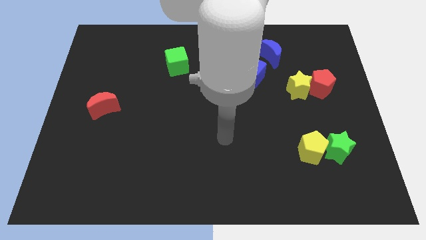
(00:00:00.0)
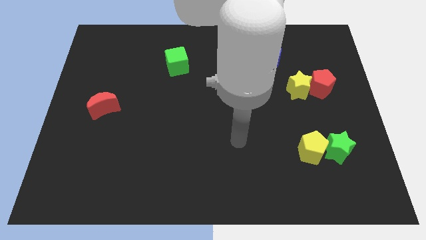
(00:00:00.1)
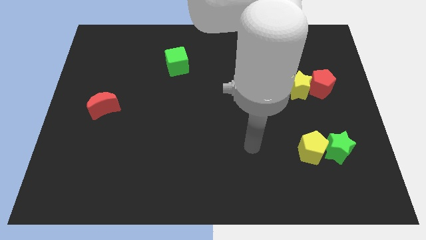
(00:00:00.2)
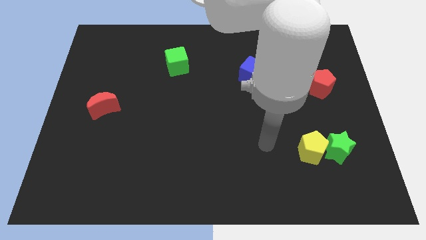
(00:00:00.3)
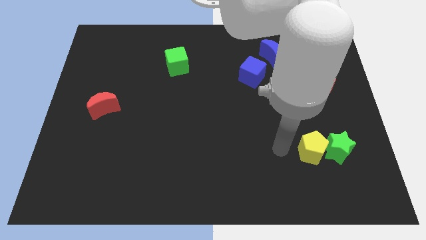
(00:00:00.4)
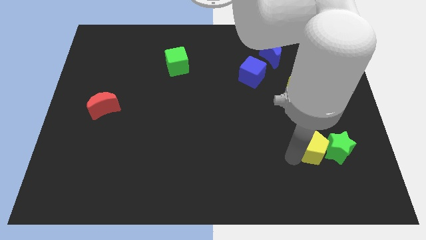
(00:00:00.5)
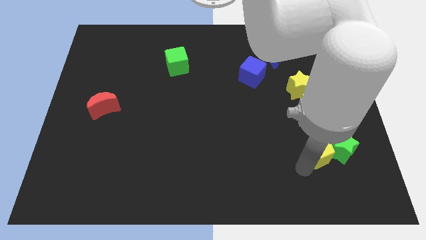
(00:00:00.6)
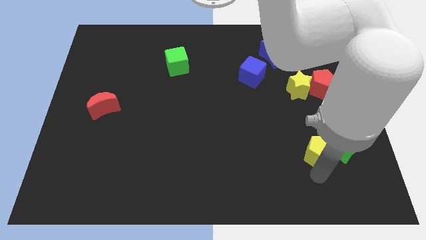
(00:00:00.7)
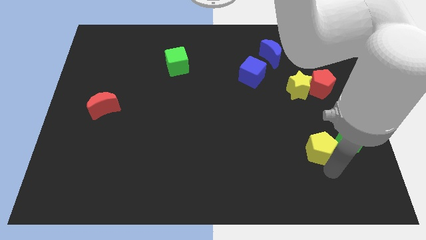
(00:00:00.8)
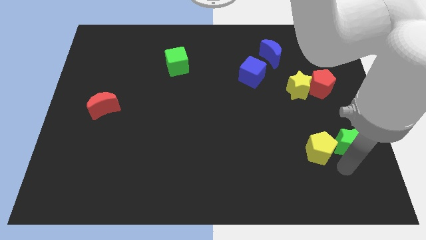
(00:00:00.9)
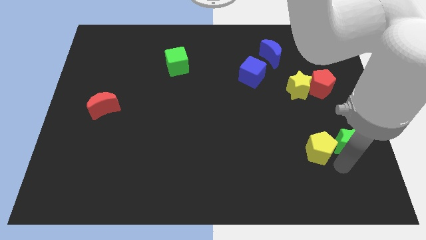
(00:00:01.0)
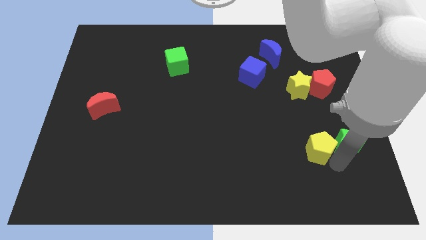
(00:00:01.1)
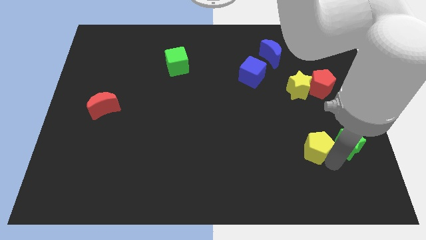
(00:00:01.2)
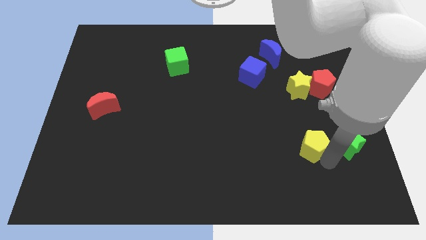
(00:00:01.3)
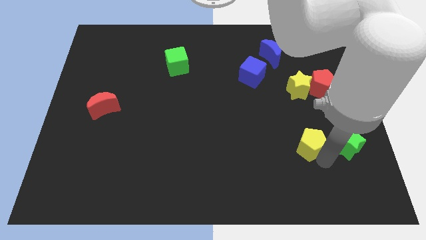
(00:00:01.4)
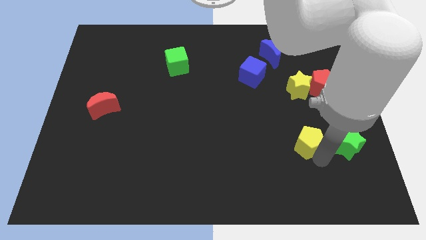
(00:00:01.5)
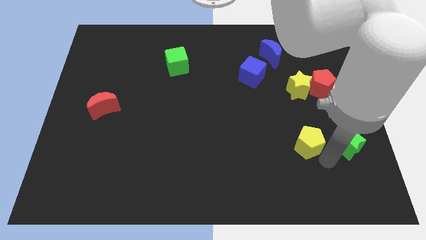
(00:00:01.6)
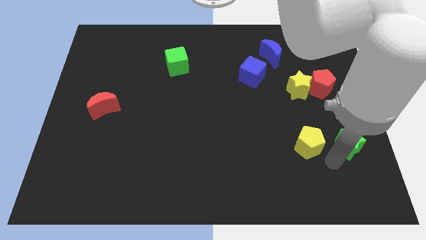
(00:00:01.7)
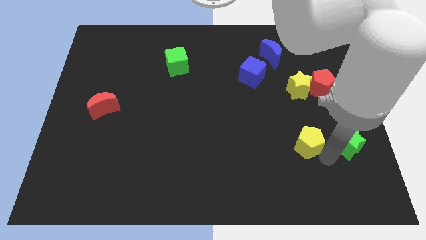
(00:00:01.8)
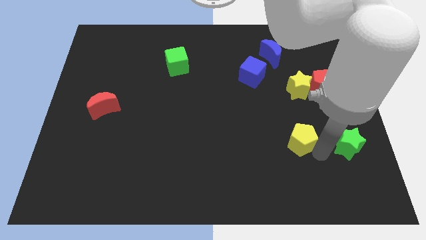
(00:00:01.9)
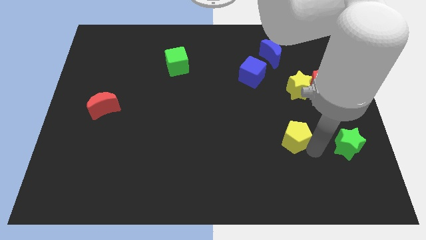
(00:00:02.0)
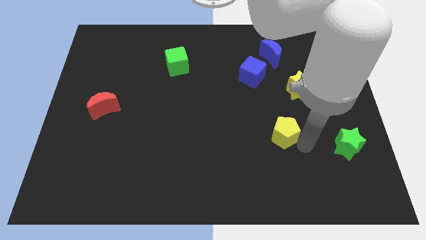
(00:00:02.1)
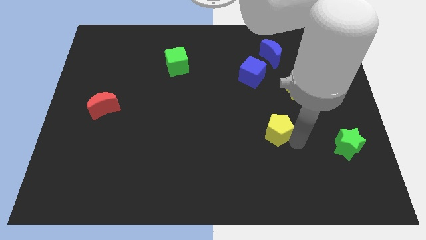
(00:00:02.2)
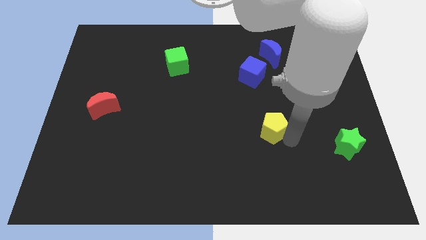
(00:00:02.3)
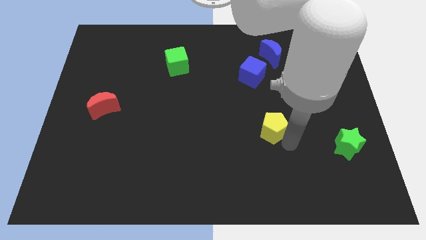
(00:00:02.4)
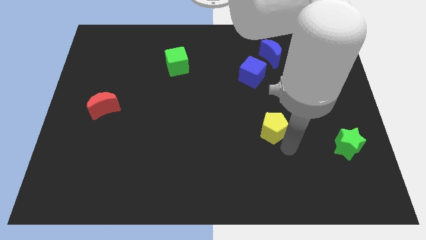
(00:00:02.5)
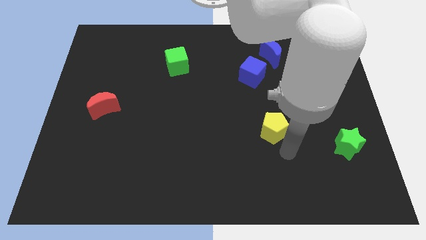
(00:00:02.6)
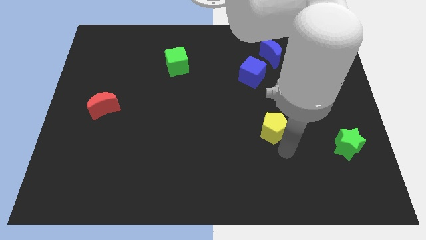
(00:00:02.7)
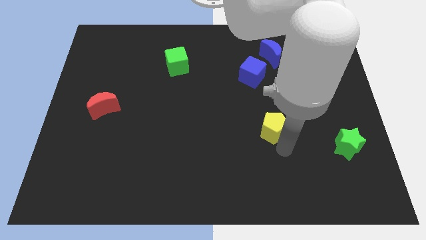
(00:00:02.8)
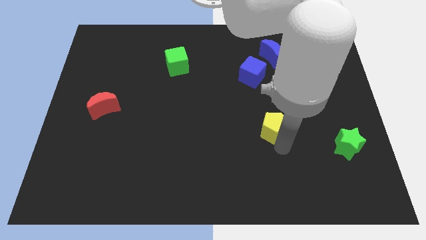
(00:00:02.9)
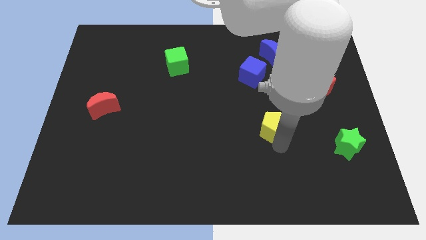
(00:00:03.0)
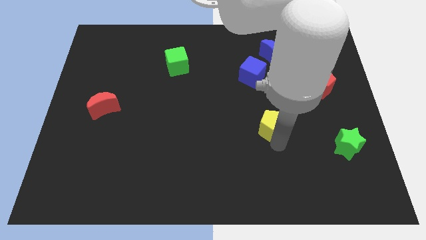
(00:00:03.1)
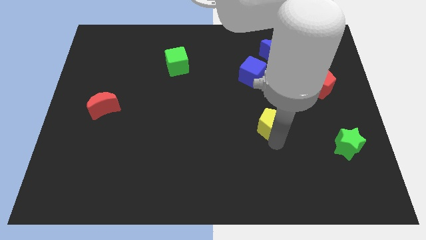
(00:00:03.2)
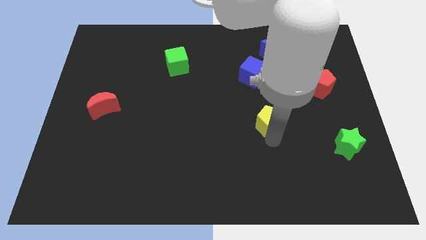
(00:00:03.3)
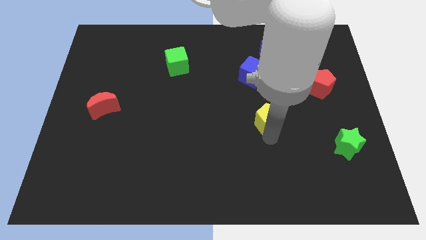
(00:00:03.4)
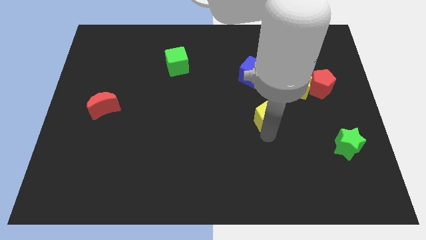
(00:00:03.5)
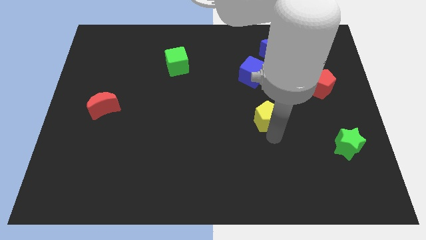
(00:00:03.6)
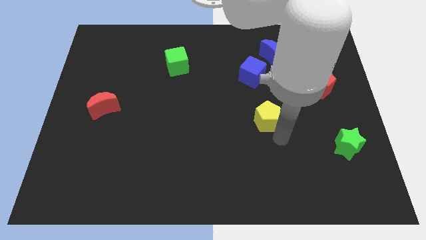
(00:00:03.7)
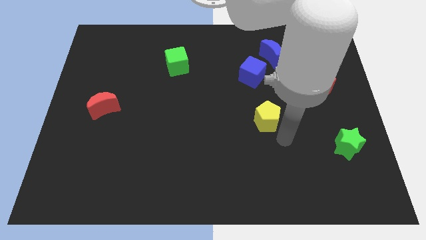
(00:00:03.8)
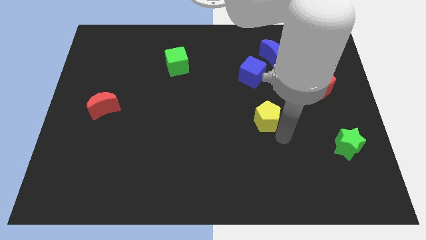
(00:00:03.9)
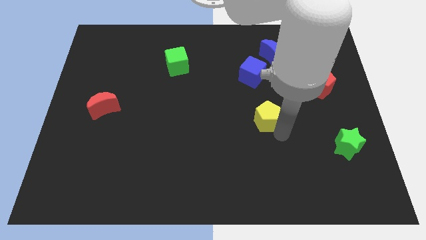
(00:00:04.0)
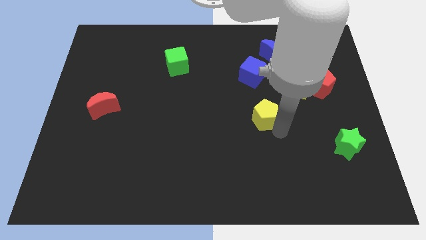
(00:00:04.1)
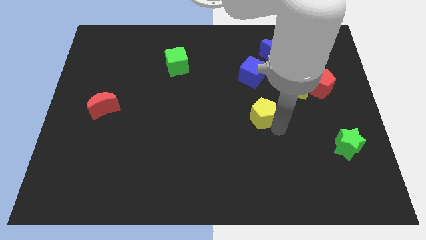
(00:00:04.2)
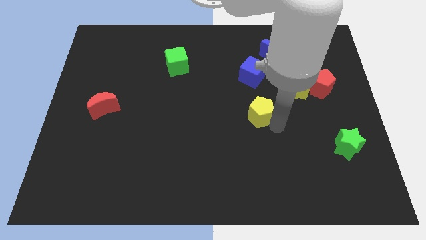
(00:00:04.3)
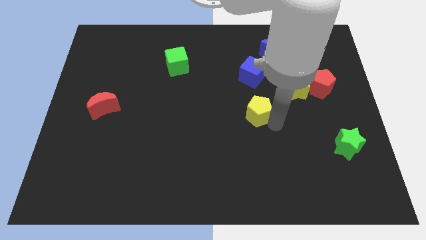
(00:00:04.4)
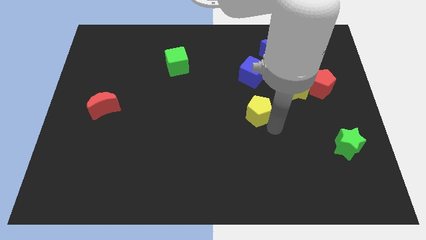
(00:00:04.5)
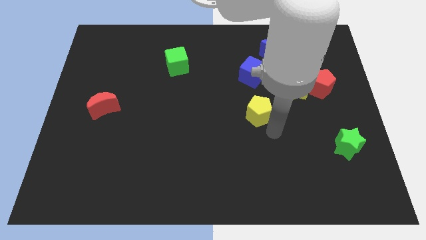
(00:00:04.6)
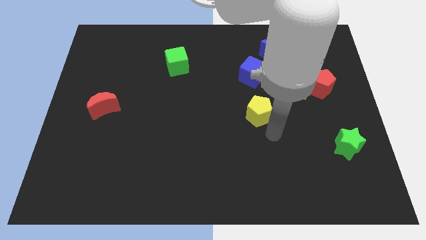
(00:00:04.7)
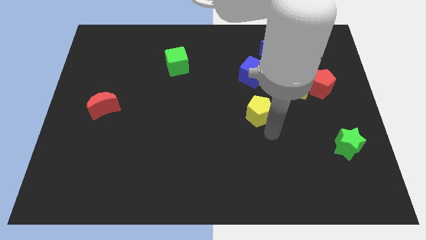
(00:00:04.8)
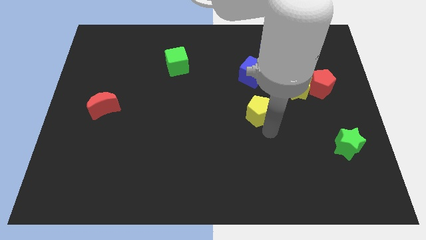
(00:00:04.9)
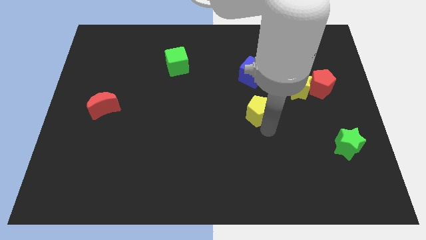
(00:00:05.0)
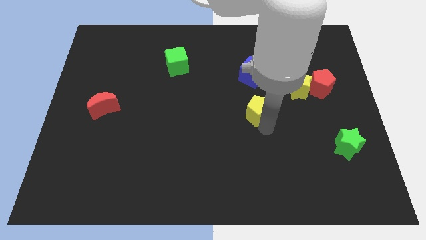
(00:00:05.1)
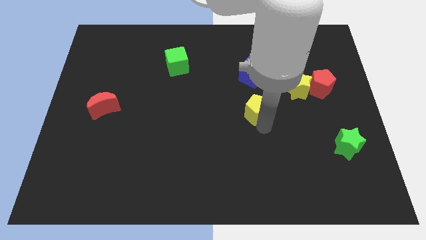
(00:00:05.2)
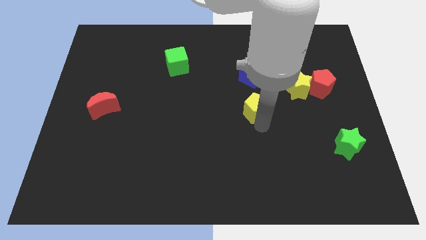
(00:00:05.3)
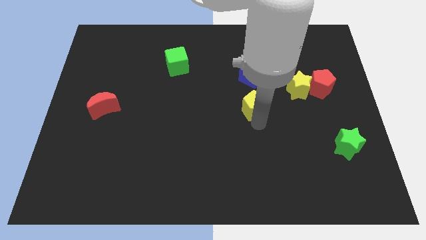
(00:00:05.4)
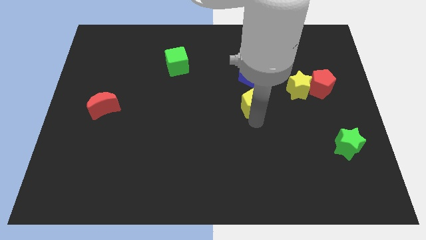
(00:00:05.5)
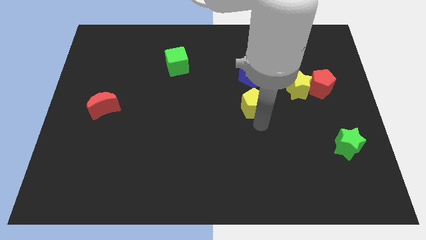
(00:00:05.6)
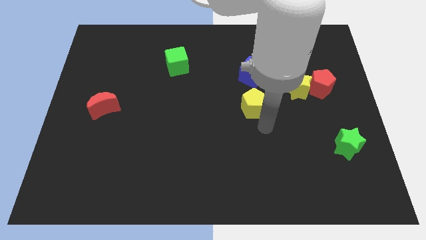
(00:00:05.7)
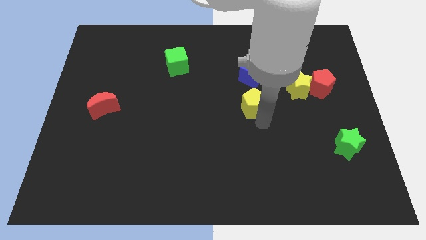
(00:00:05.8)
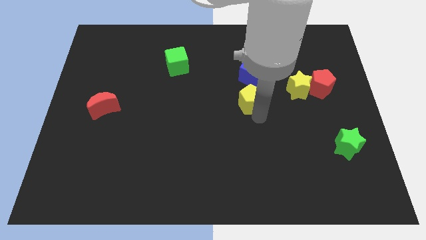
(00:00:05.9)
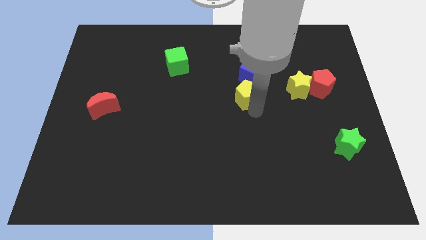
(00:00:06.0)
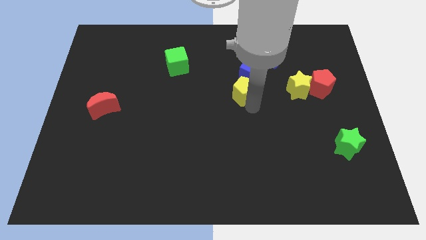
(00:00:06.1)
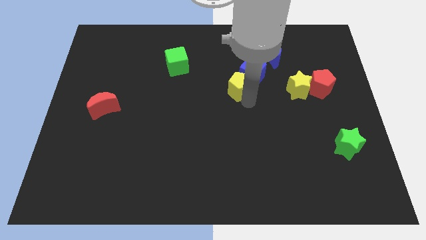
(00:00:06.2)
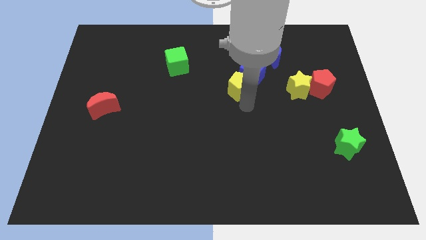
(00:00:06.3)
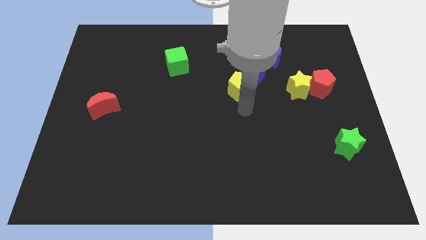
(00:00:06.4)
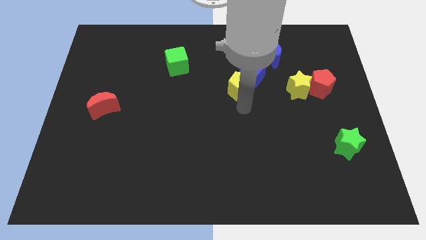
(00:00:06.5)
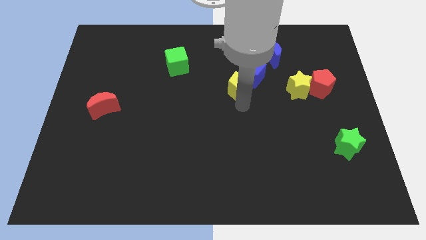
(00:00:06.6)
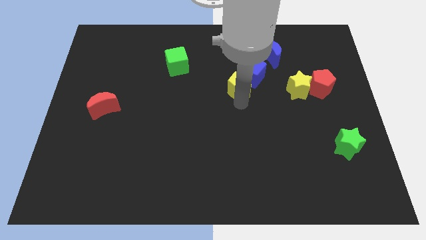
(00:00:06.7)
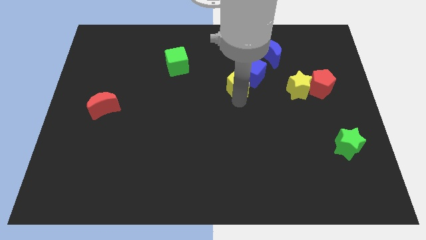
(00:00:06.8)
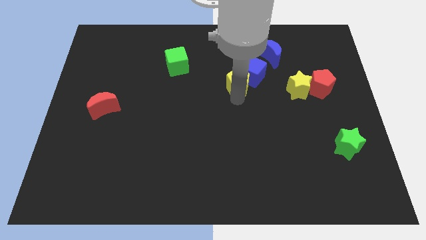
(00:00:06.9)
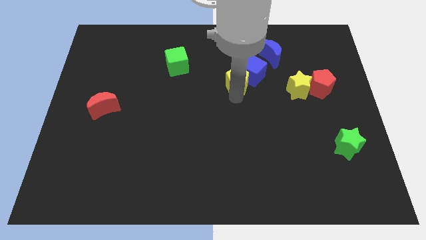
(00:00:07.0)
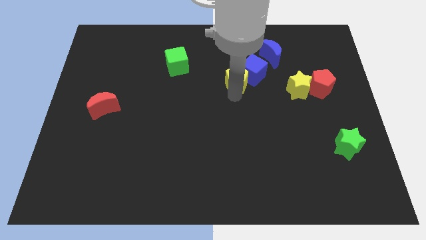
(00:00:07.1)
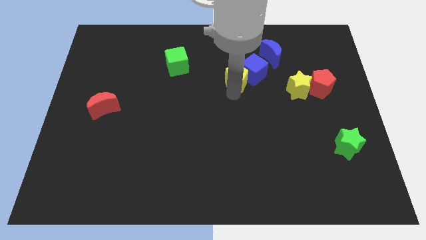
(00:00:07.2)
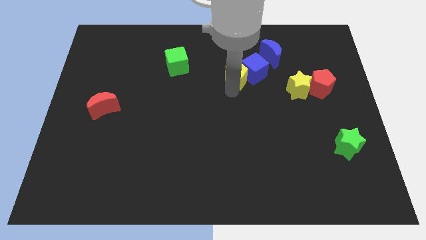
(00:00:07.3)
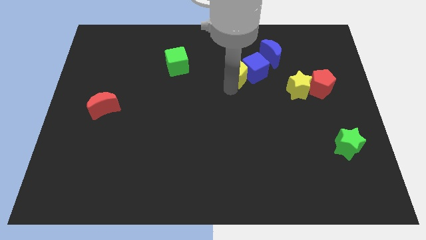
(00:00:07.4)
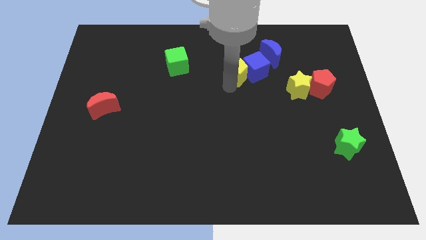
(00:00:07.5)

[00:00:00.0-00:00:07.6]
move the yellow pentagon diagonally up and to the left of the blue cube

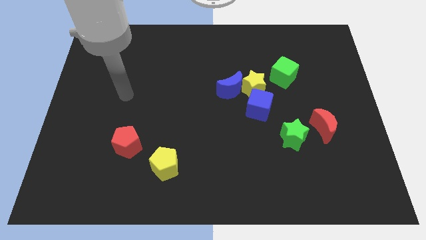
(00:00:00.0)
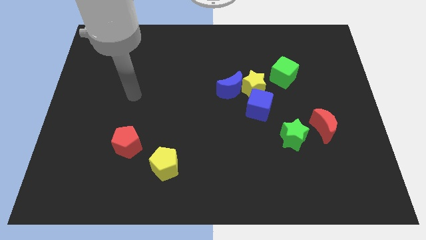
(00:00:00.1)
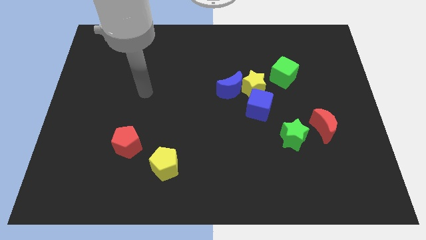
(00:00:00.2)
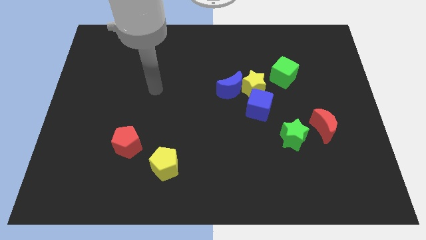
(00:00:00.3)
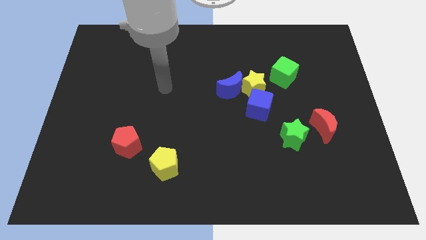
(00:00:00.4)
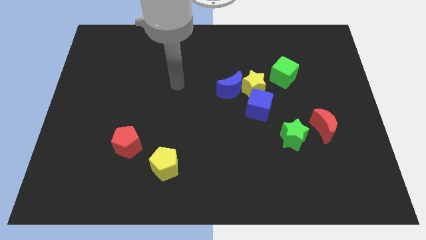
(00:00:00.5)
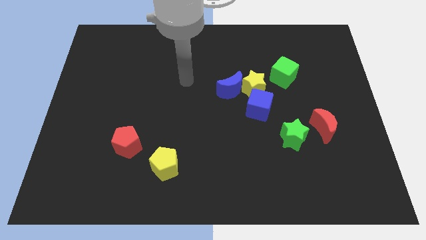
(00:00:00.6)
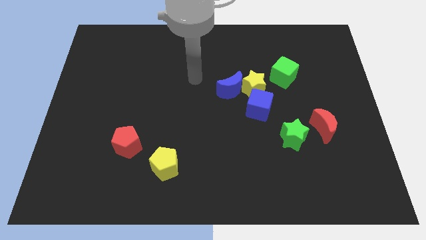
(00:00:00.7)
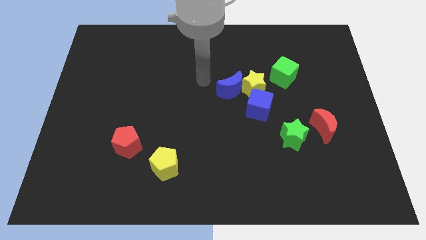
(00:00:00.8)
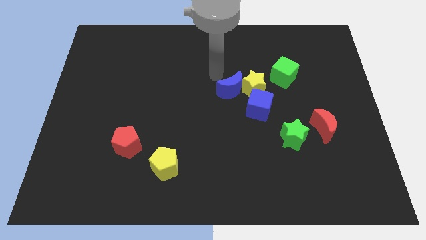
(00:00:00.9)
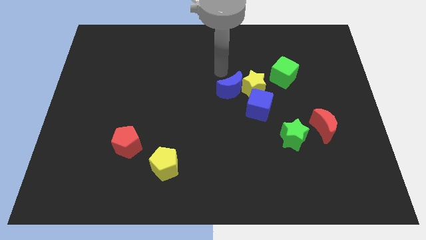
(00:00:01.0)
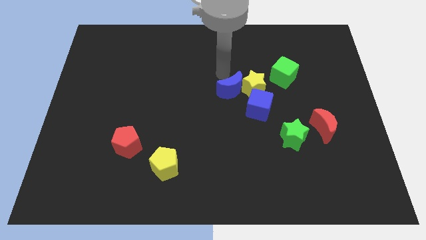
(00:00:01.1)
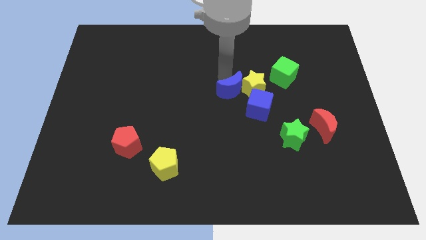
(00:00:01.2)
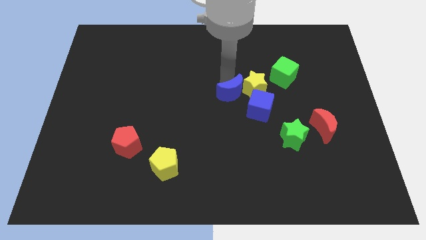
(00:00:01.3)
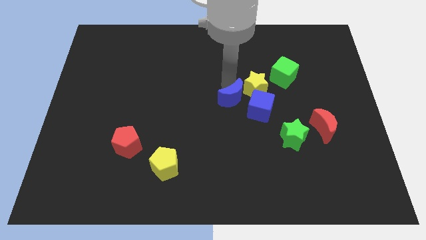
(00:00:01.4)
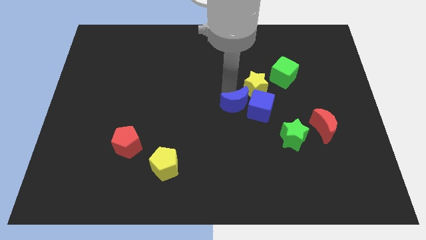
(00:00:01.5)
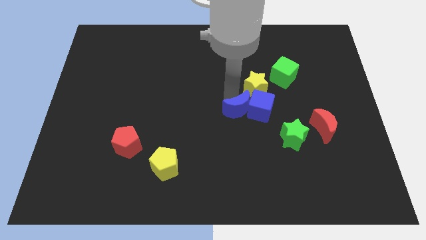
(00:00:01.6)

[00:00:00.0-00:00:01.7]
slide the blue moon to the bottom of the yellow star
